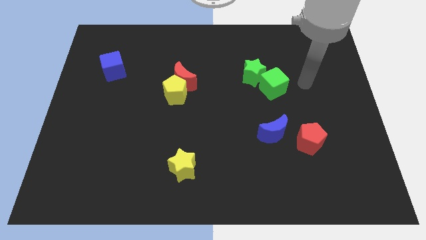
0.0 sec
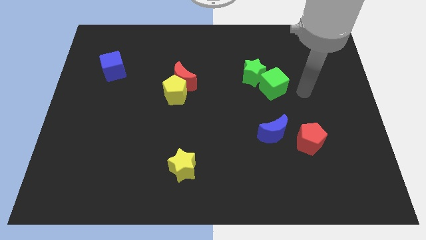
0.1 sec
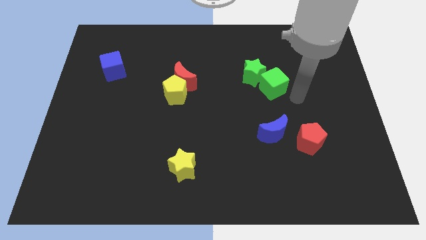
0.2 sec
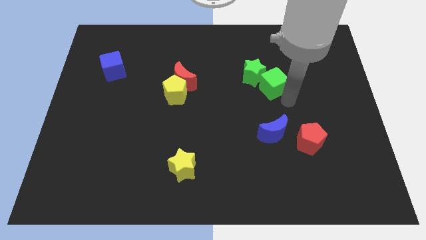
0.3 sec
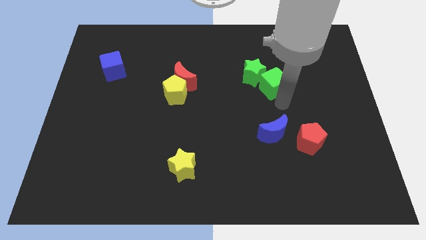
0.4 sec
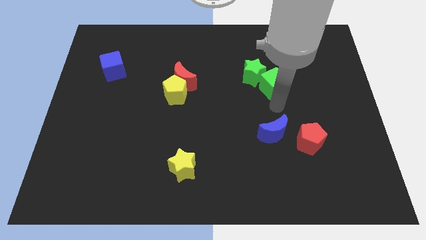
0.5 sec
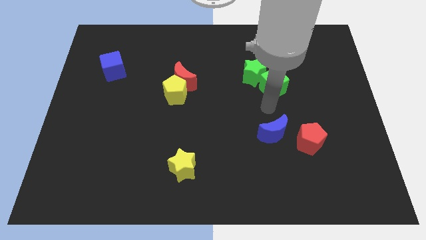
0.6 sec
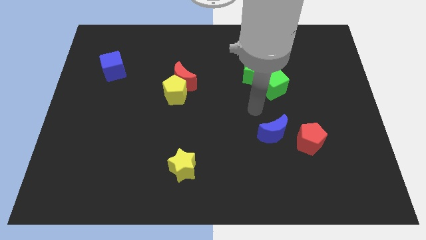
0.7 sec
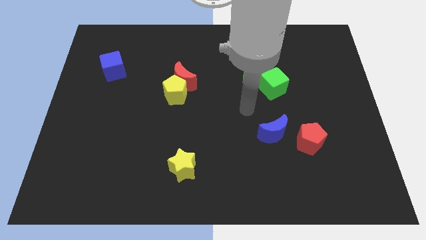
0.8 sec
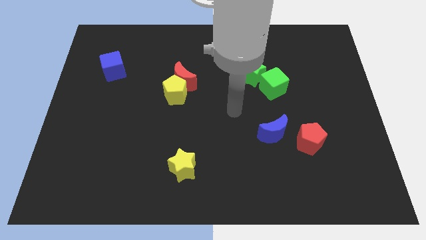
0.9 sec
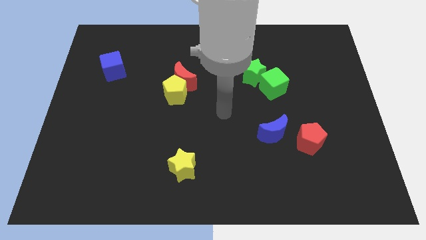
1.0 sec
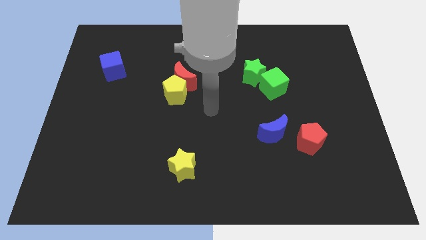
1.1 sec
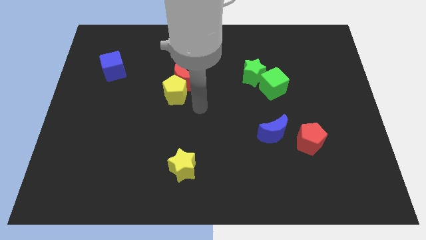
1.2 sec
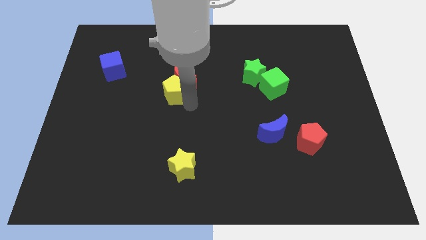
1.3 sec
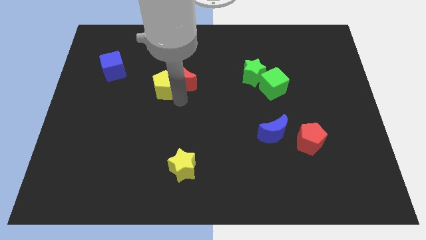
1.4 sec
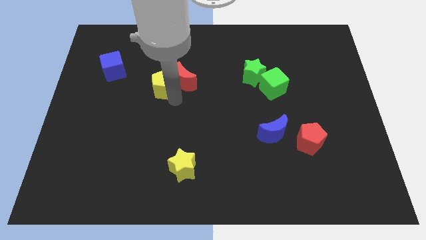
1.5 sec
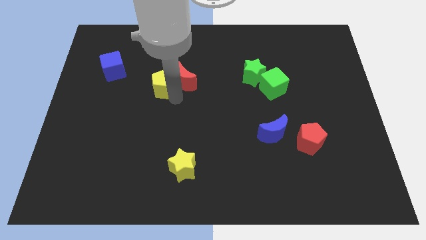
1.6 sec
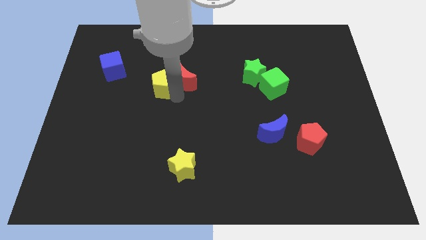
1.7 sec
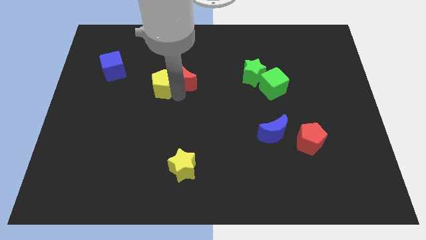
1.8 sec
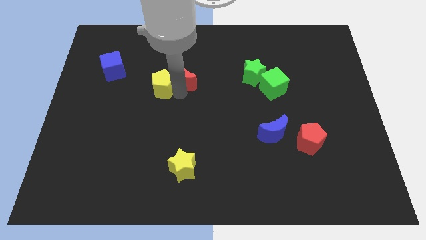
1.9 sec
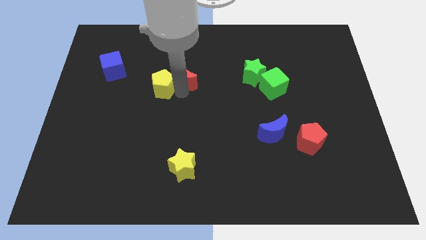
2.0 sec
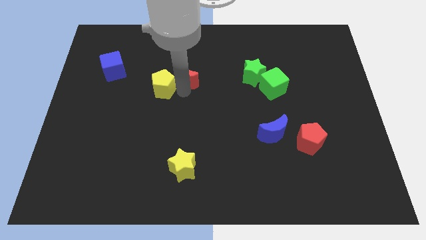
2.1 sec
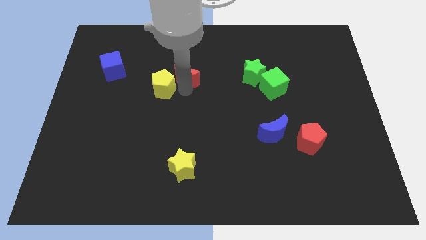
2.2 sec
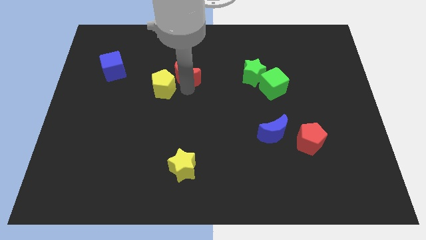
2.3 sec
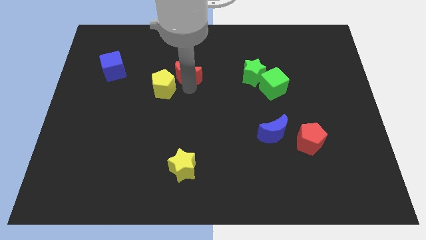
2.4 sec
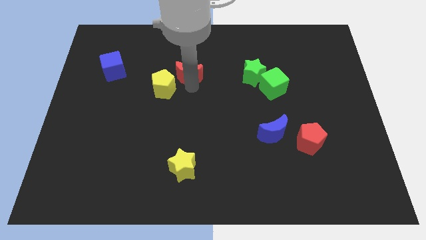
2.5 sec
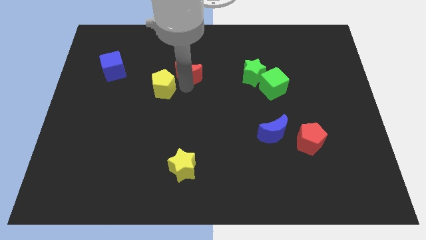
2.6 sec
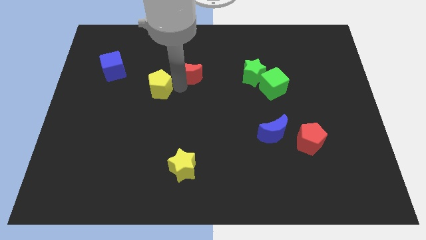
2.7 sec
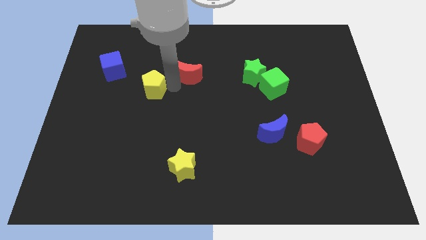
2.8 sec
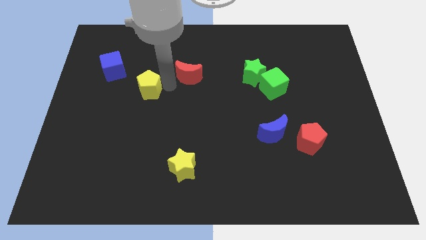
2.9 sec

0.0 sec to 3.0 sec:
move the red moon away from the yellow pentagon

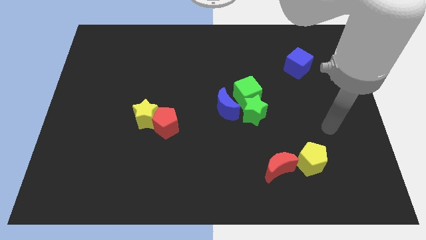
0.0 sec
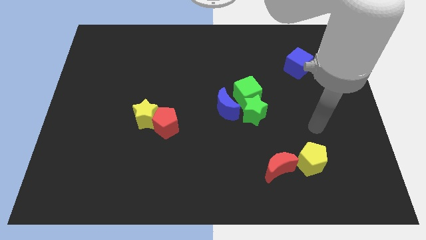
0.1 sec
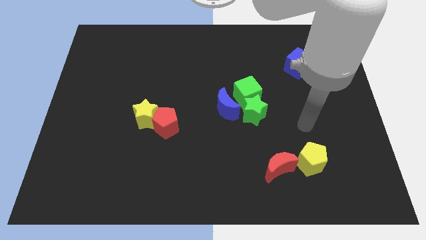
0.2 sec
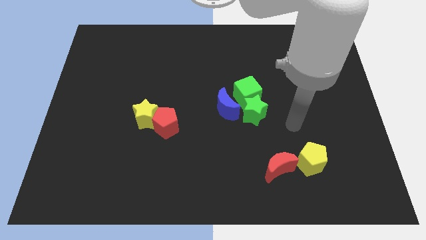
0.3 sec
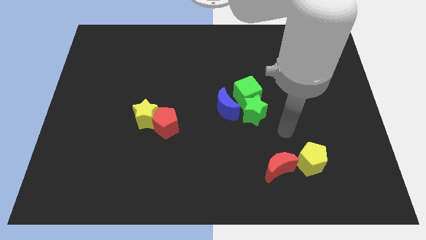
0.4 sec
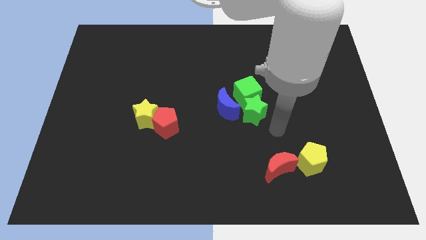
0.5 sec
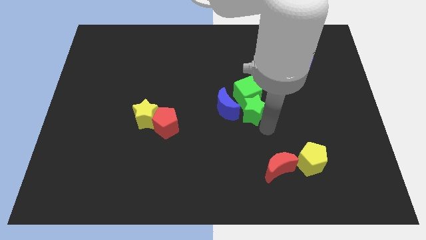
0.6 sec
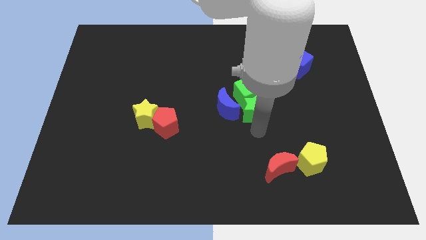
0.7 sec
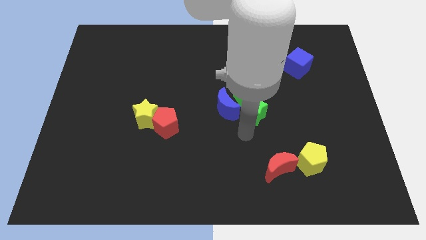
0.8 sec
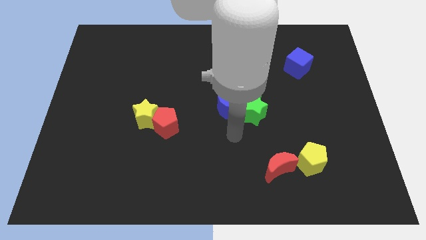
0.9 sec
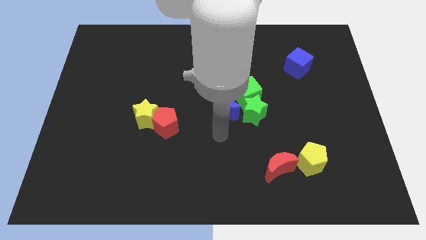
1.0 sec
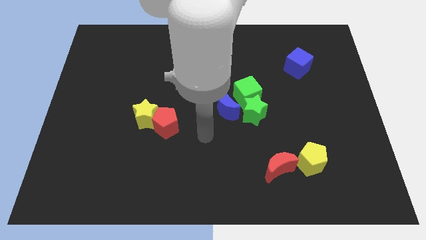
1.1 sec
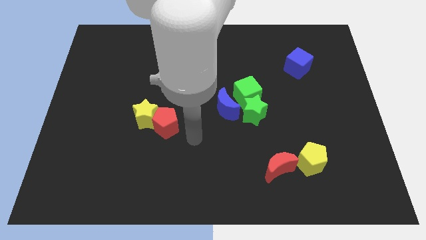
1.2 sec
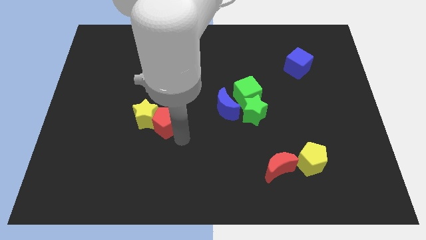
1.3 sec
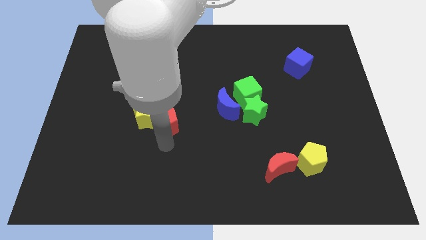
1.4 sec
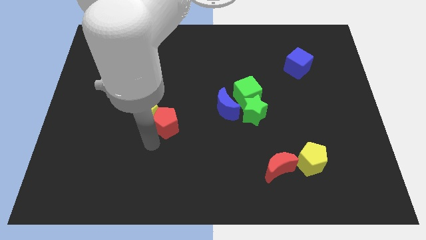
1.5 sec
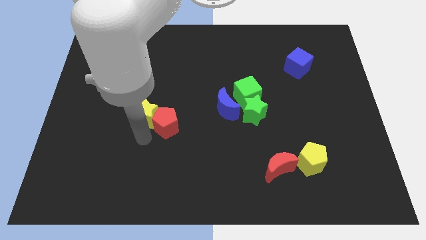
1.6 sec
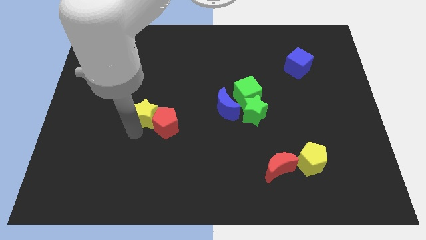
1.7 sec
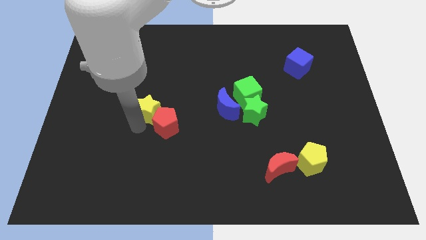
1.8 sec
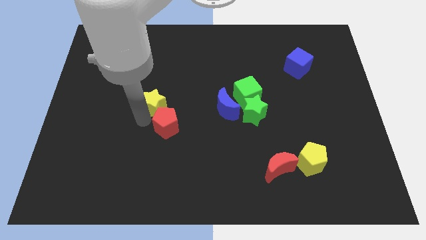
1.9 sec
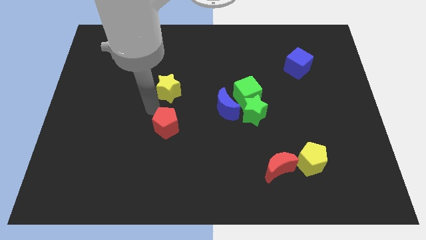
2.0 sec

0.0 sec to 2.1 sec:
move the red pentagon away from the yellow star

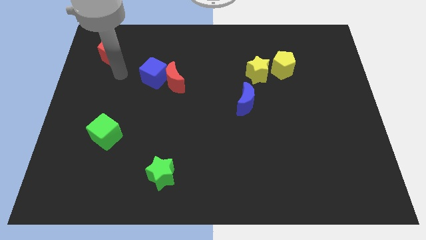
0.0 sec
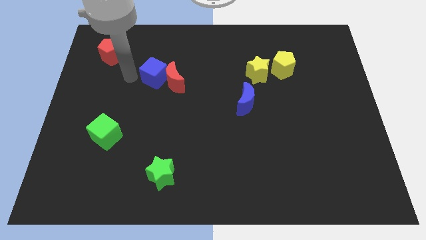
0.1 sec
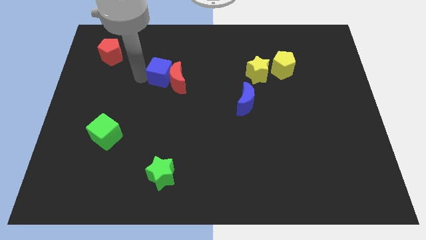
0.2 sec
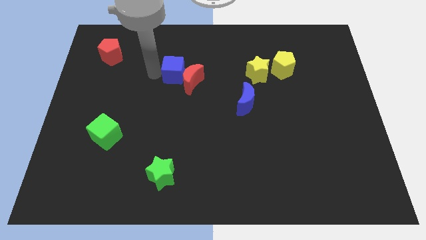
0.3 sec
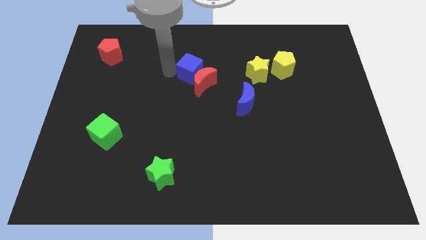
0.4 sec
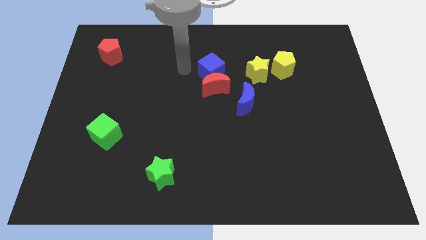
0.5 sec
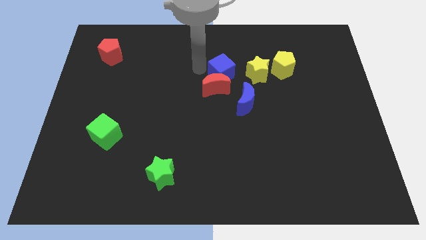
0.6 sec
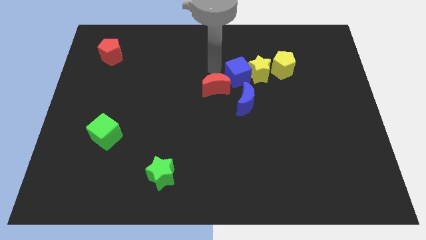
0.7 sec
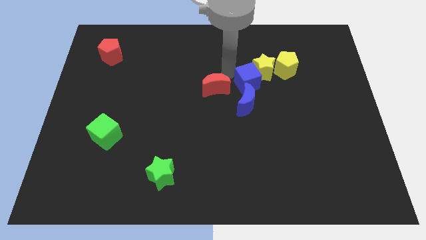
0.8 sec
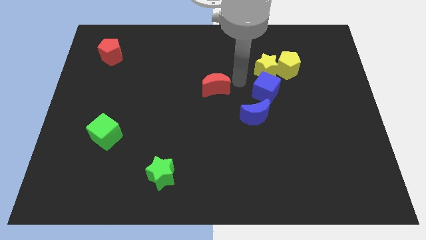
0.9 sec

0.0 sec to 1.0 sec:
separate the red moon from the blue cube

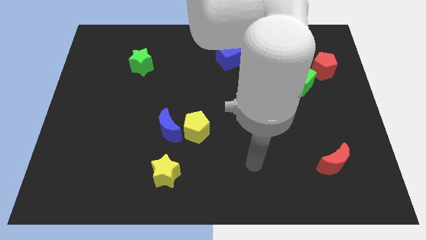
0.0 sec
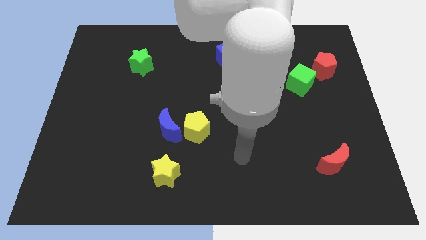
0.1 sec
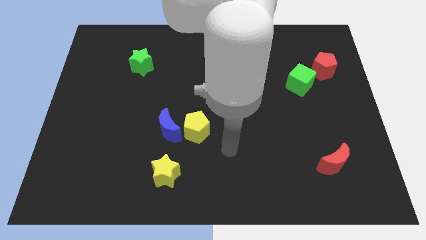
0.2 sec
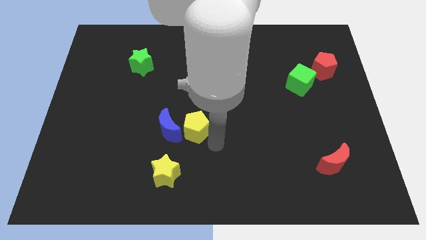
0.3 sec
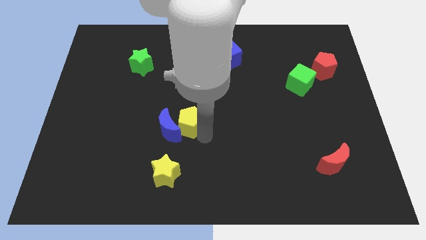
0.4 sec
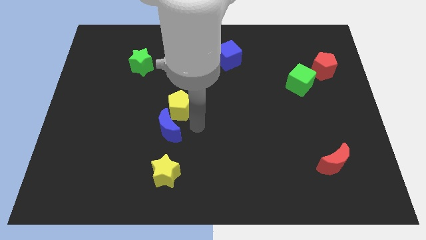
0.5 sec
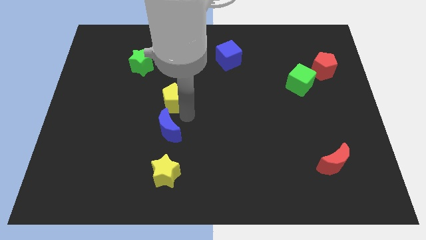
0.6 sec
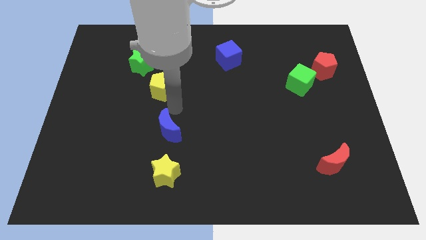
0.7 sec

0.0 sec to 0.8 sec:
move the blue moon away from the yellow pentagon

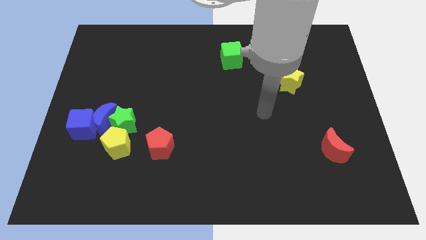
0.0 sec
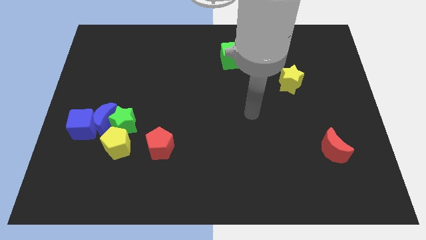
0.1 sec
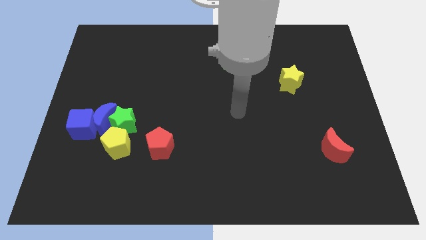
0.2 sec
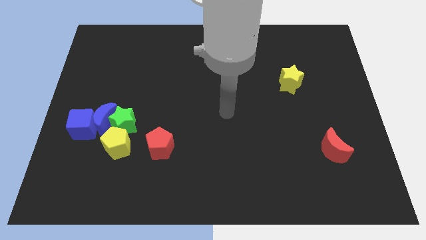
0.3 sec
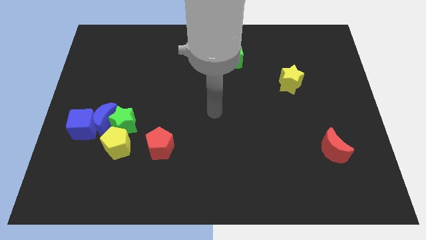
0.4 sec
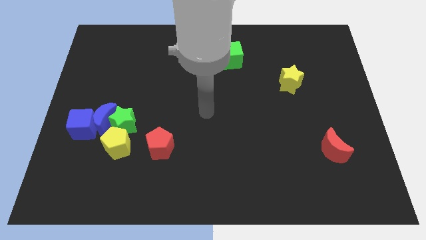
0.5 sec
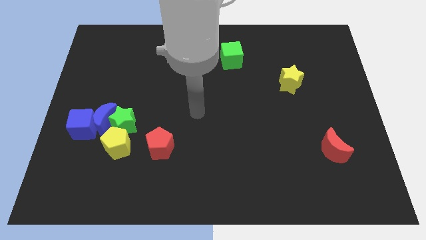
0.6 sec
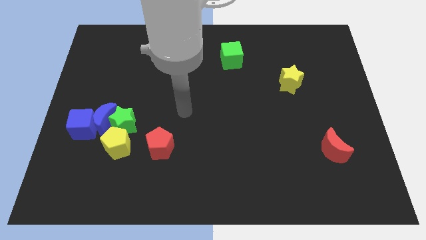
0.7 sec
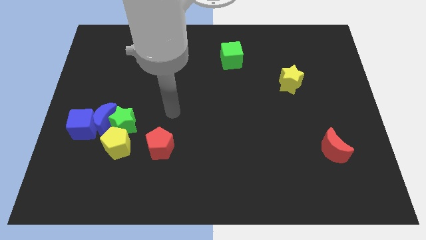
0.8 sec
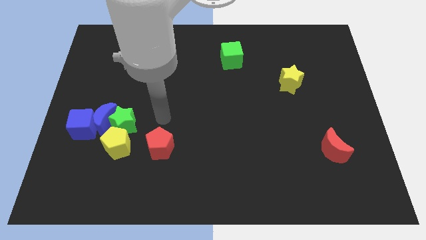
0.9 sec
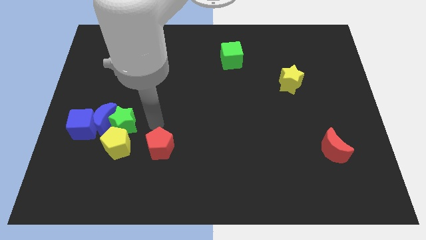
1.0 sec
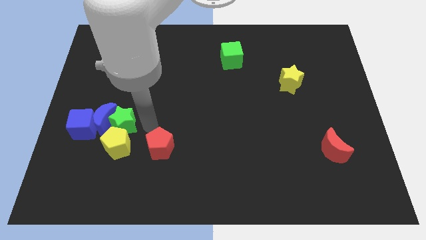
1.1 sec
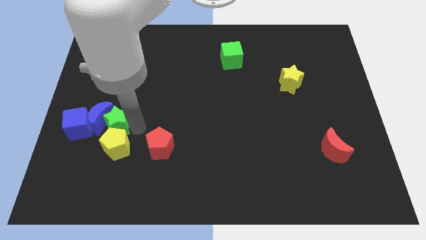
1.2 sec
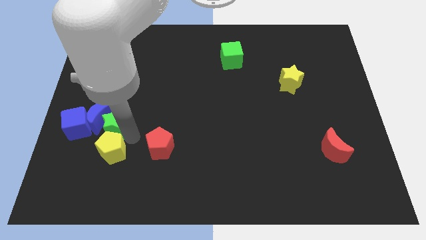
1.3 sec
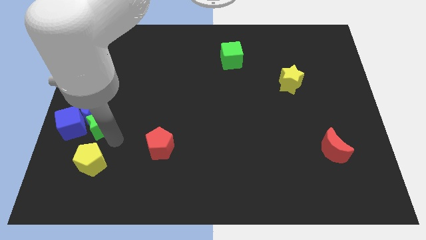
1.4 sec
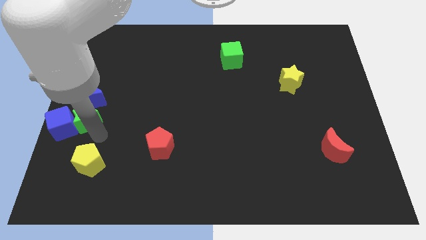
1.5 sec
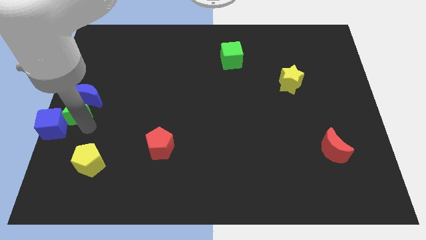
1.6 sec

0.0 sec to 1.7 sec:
pull the blue moon apart from the green star, blue cube, and yellow pentagon

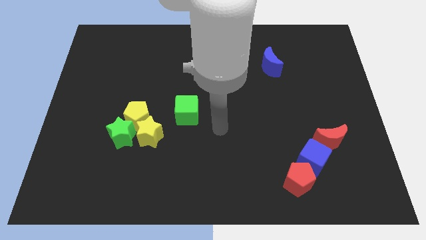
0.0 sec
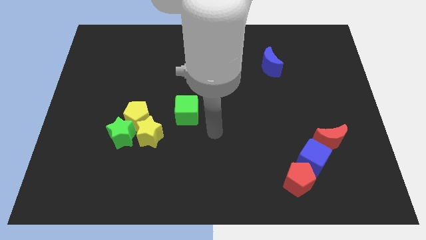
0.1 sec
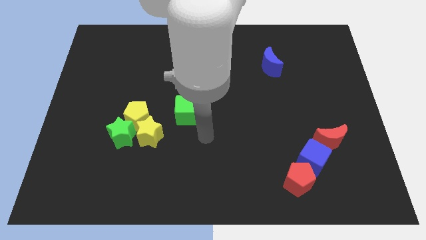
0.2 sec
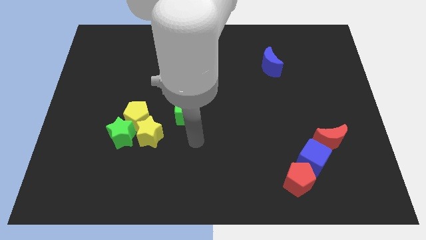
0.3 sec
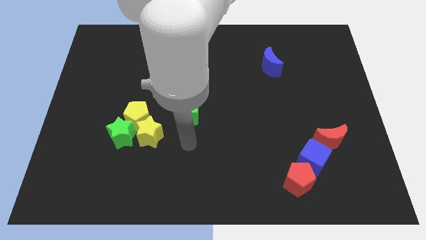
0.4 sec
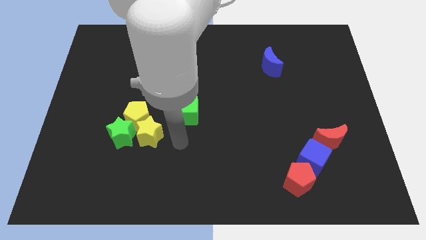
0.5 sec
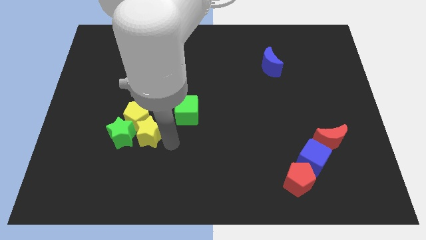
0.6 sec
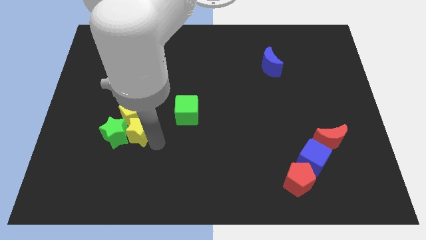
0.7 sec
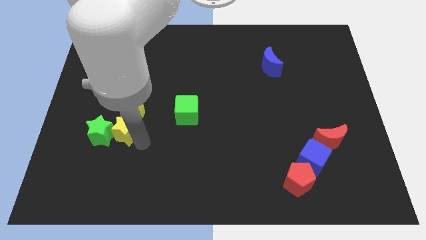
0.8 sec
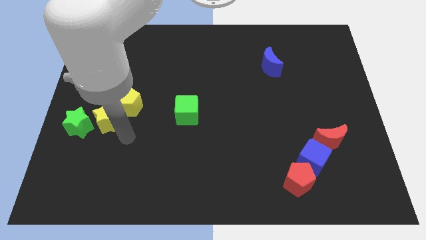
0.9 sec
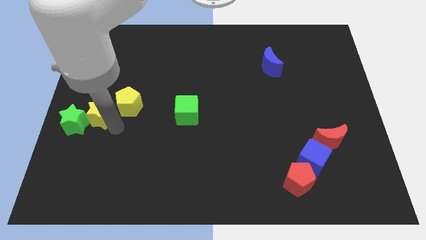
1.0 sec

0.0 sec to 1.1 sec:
separate the yellow pentagon from the green star and yellow star
